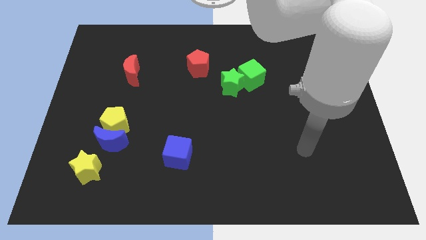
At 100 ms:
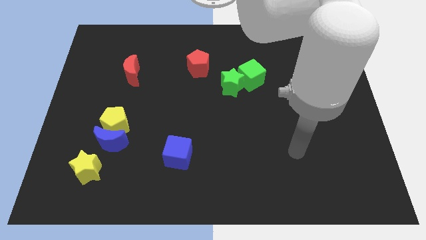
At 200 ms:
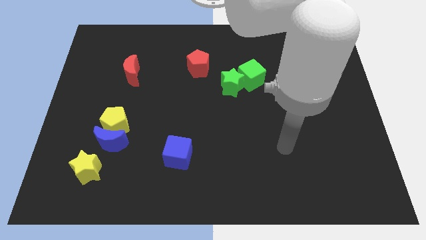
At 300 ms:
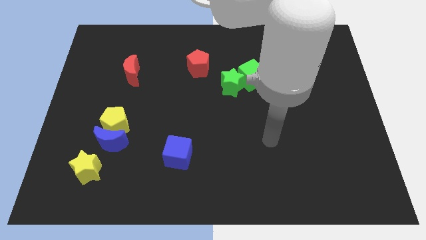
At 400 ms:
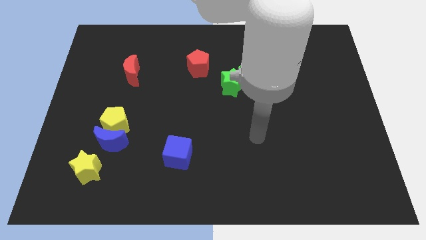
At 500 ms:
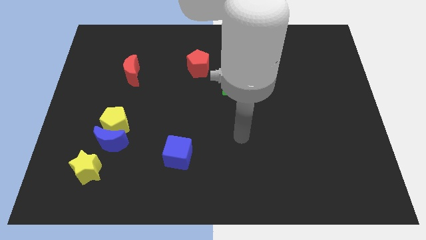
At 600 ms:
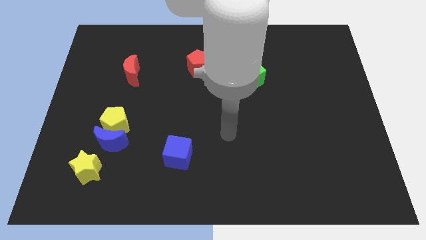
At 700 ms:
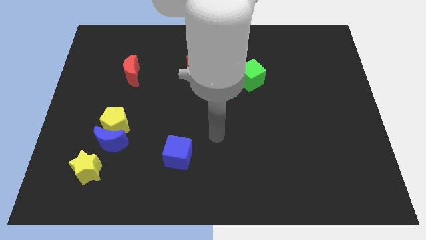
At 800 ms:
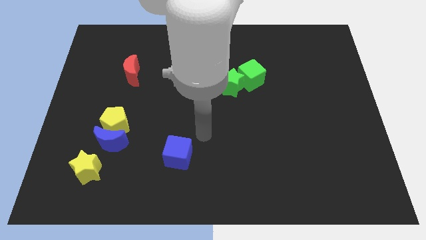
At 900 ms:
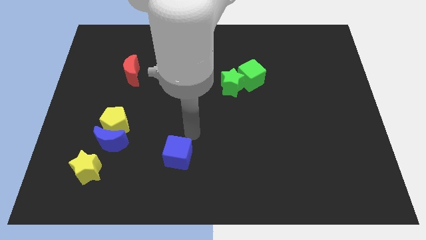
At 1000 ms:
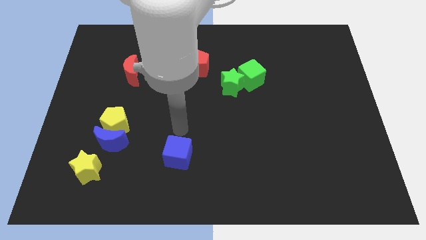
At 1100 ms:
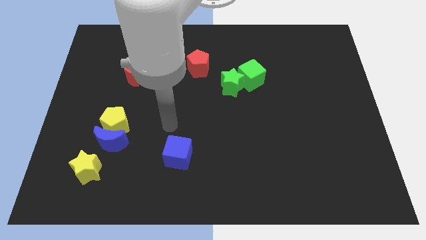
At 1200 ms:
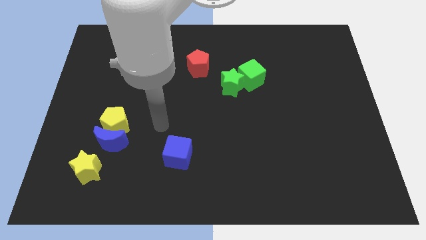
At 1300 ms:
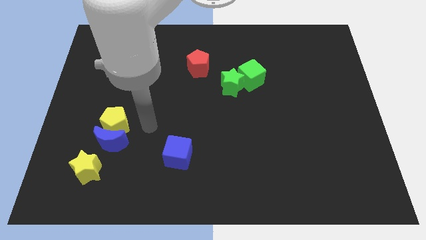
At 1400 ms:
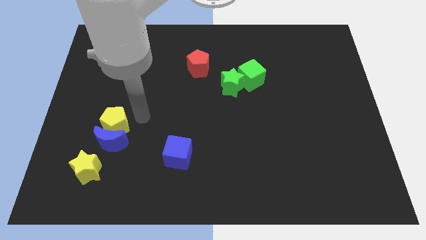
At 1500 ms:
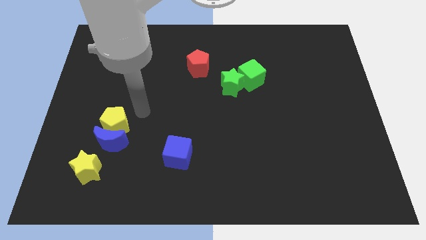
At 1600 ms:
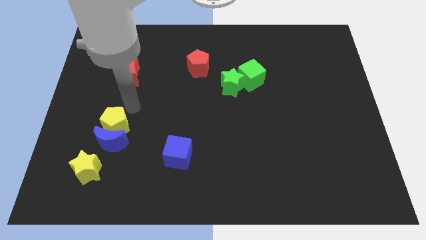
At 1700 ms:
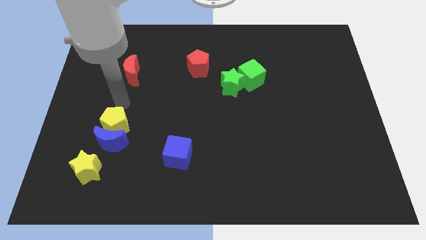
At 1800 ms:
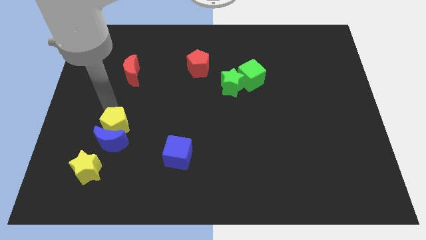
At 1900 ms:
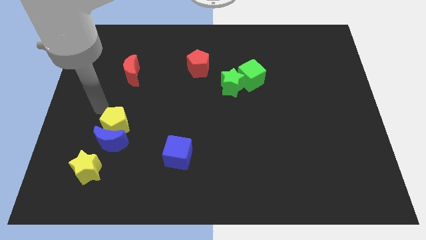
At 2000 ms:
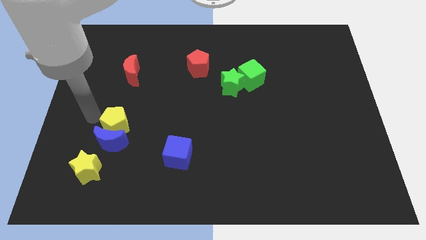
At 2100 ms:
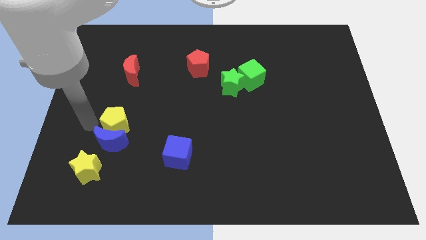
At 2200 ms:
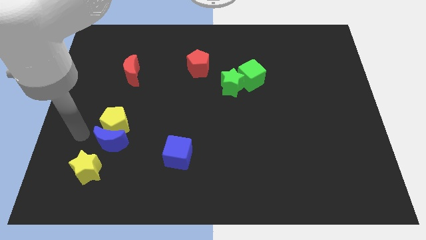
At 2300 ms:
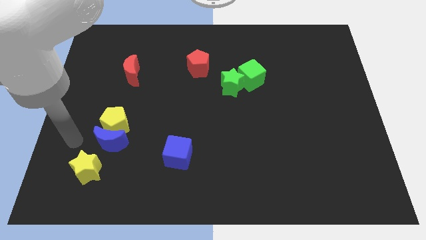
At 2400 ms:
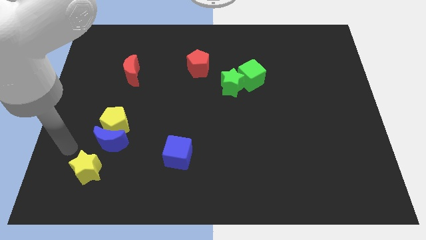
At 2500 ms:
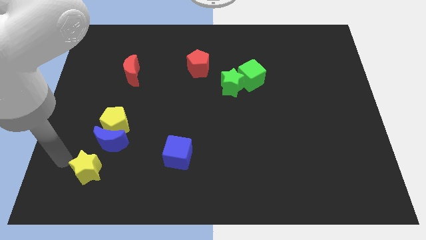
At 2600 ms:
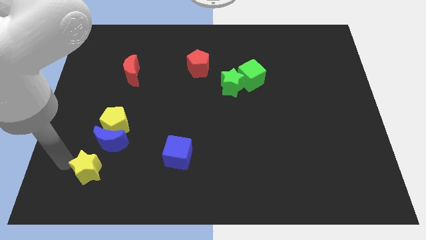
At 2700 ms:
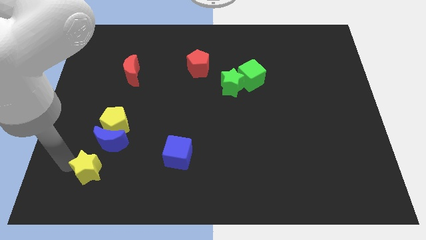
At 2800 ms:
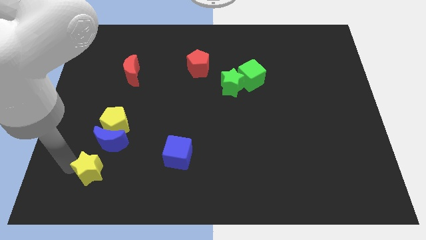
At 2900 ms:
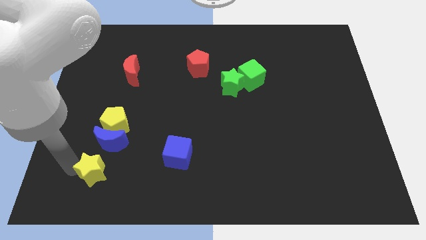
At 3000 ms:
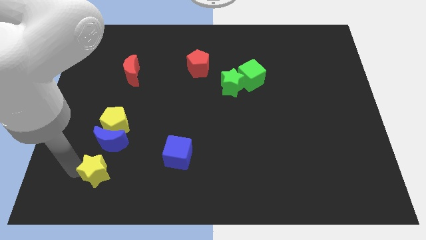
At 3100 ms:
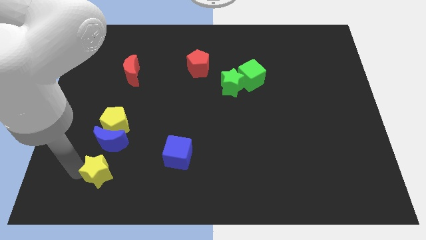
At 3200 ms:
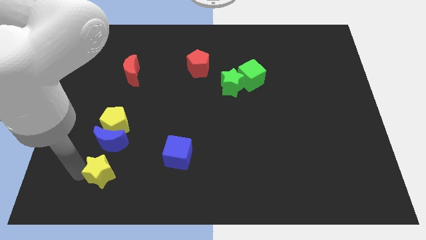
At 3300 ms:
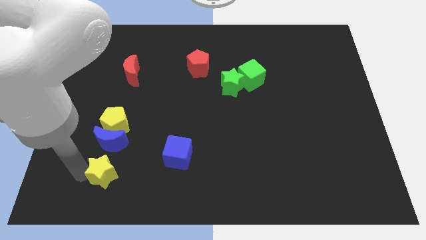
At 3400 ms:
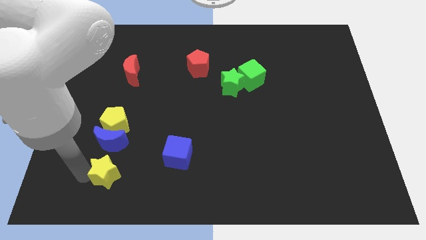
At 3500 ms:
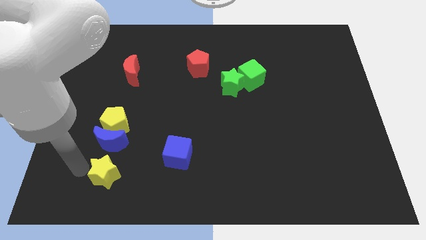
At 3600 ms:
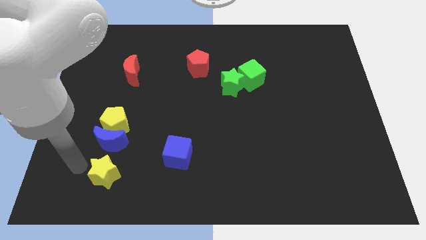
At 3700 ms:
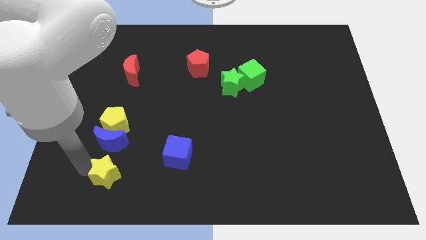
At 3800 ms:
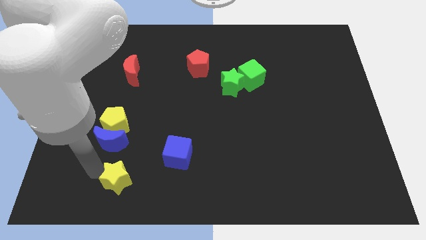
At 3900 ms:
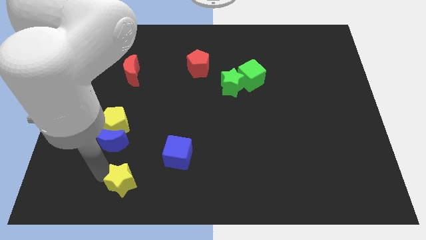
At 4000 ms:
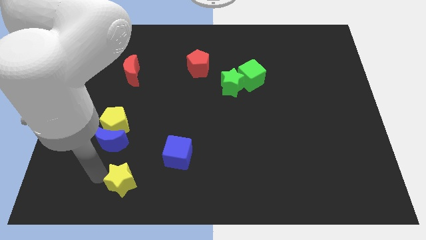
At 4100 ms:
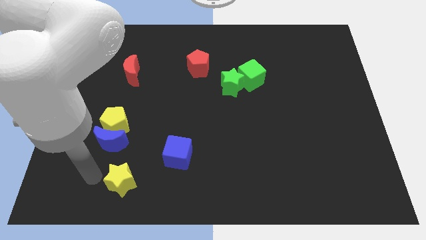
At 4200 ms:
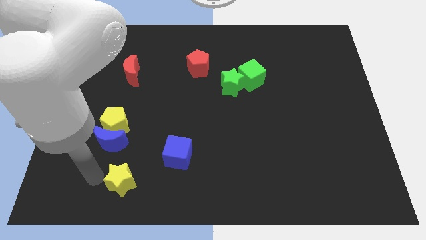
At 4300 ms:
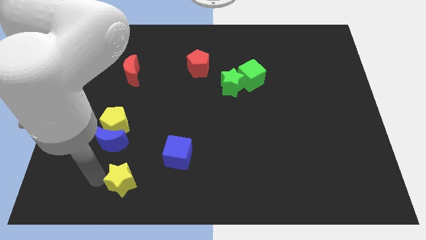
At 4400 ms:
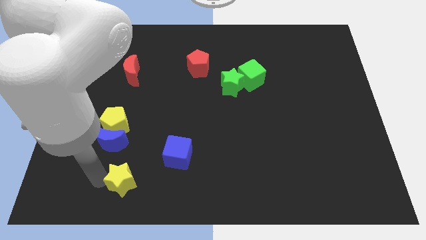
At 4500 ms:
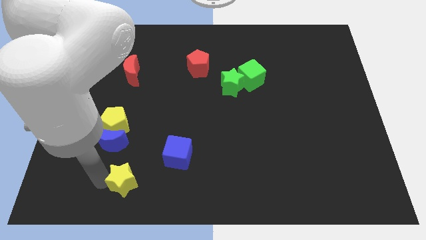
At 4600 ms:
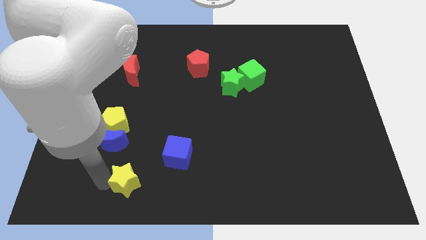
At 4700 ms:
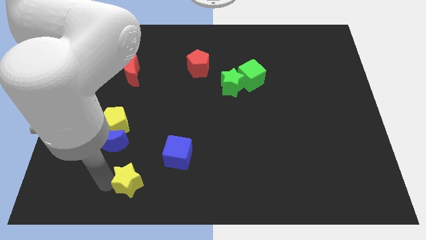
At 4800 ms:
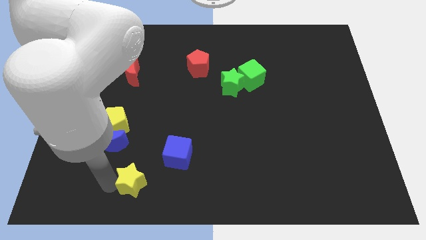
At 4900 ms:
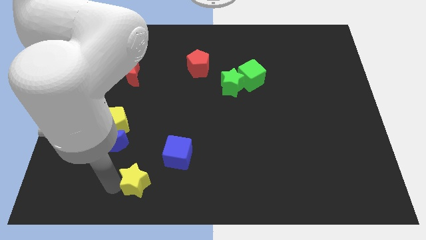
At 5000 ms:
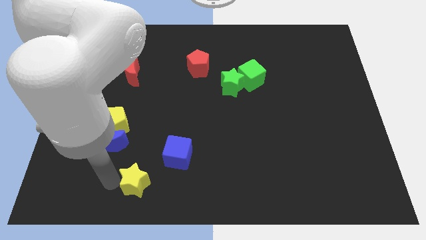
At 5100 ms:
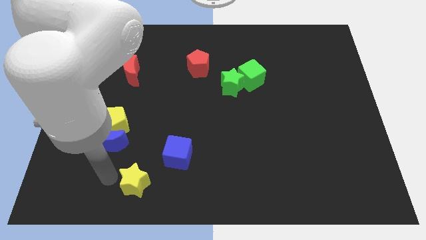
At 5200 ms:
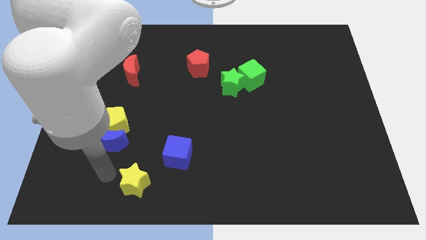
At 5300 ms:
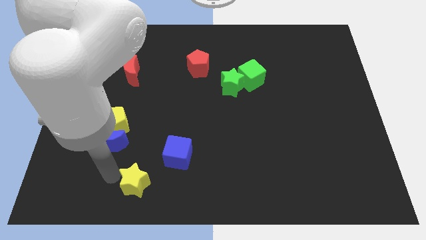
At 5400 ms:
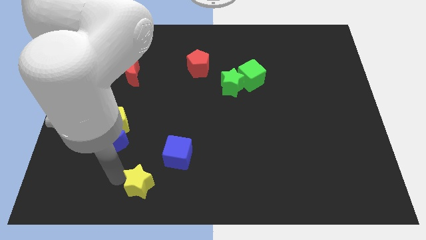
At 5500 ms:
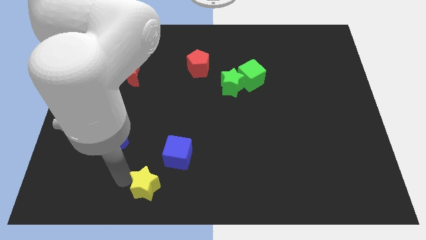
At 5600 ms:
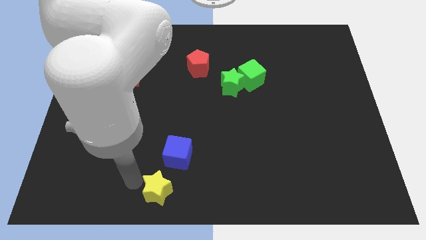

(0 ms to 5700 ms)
move the yellow star to the bottom

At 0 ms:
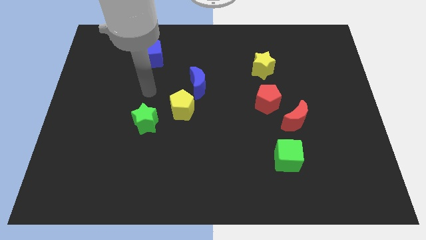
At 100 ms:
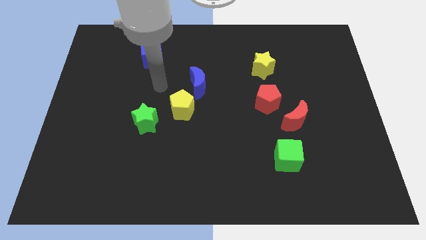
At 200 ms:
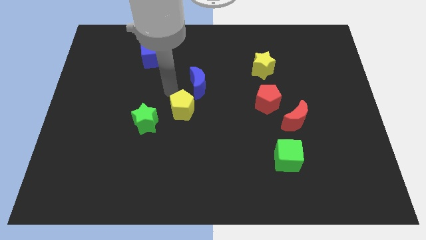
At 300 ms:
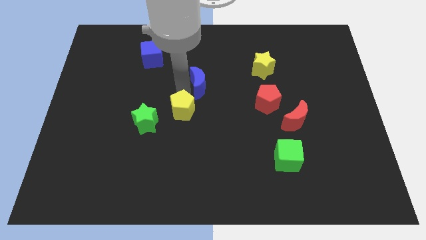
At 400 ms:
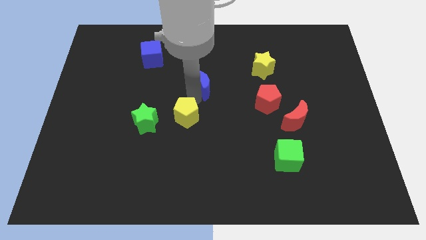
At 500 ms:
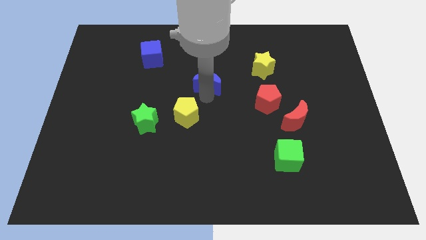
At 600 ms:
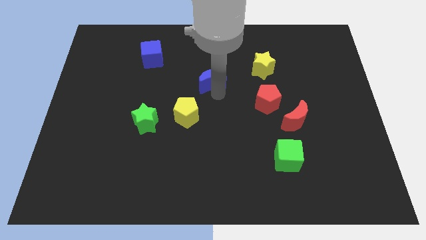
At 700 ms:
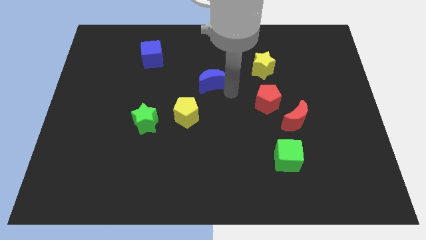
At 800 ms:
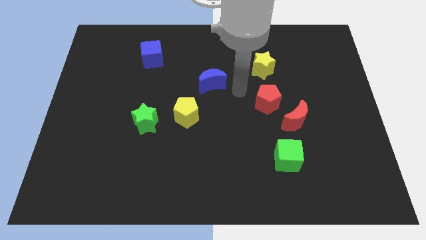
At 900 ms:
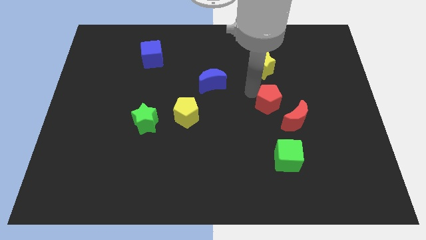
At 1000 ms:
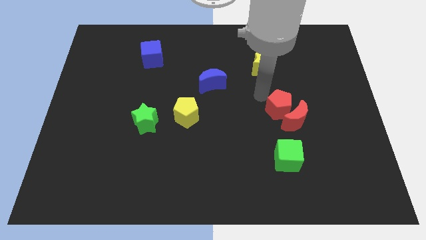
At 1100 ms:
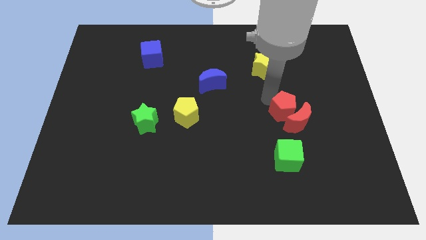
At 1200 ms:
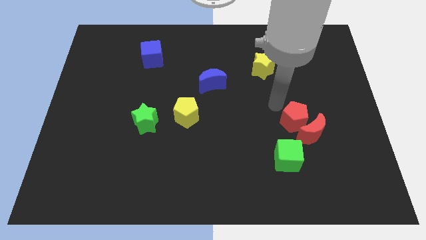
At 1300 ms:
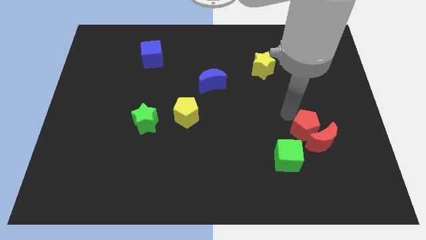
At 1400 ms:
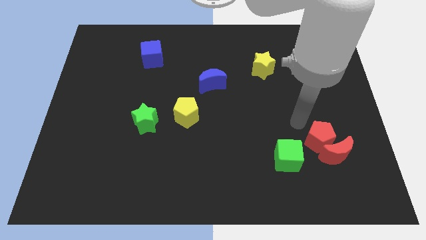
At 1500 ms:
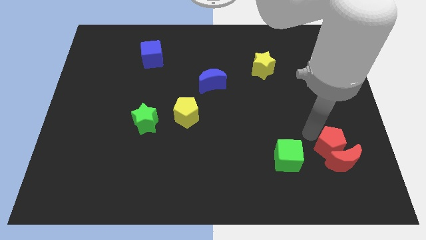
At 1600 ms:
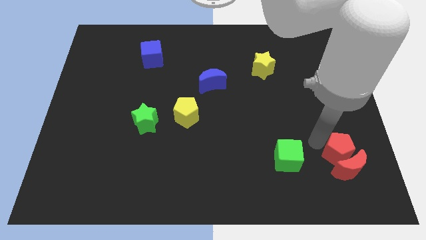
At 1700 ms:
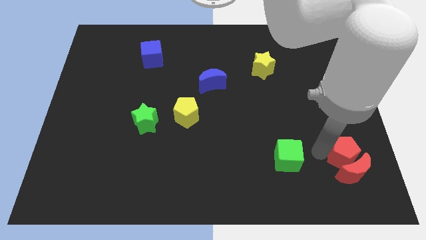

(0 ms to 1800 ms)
move the red moon to the bottom right

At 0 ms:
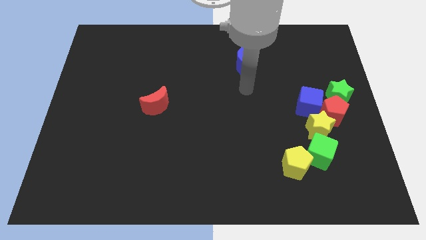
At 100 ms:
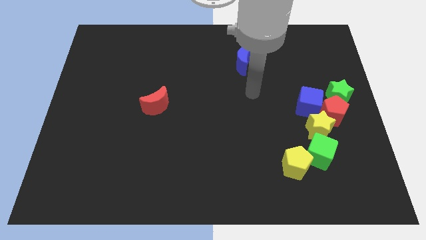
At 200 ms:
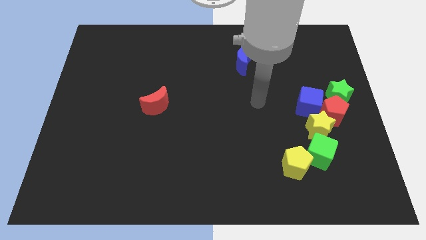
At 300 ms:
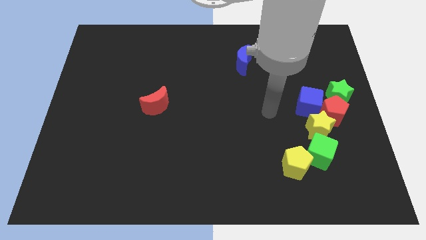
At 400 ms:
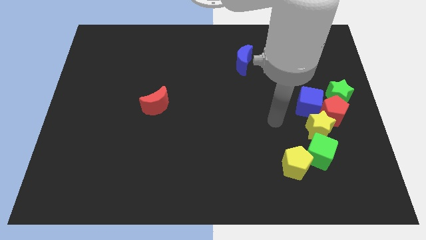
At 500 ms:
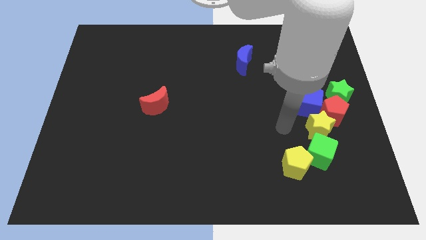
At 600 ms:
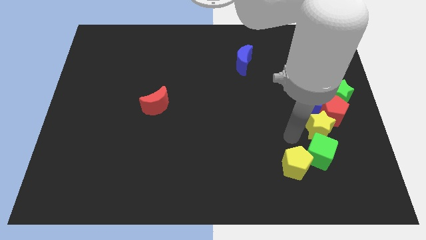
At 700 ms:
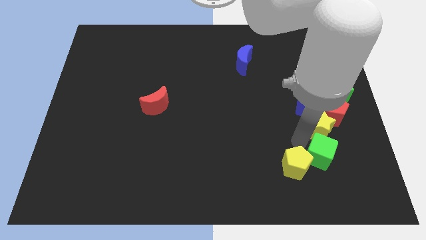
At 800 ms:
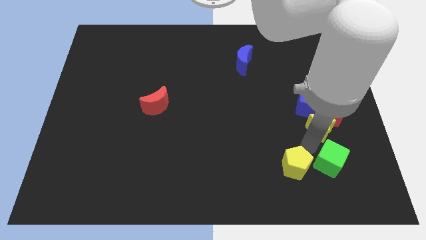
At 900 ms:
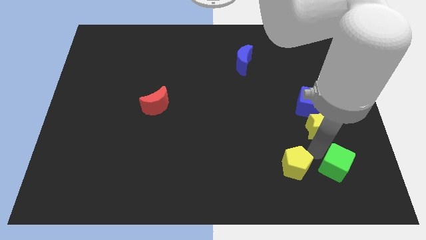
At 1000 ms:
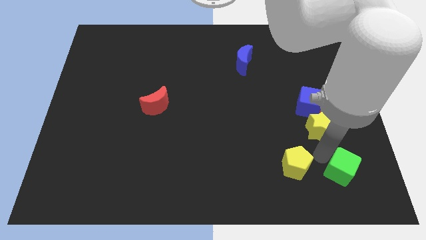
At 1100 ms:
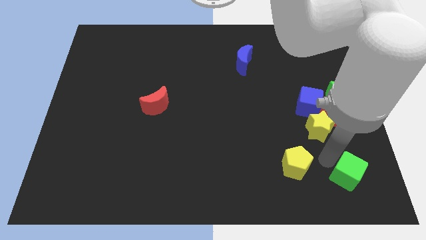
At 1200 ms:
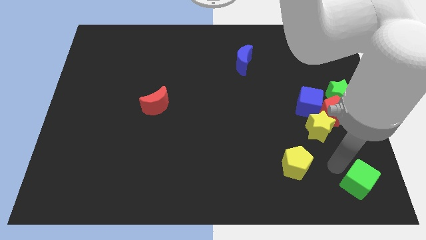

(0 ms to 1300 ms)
move the green cube to the bottom right
